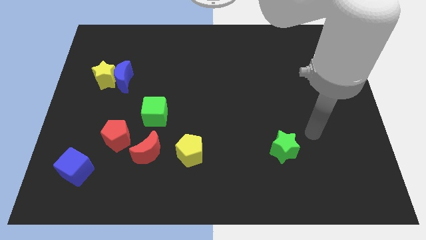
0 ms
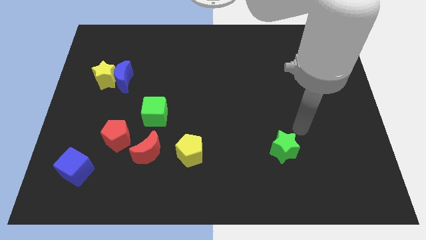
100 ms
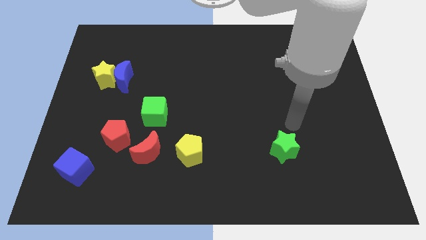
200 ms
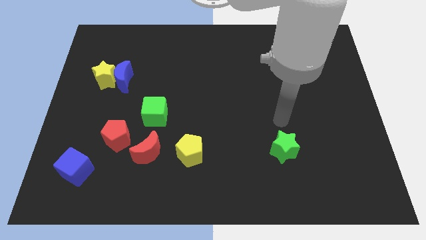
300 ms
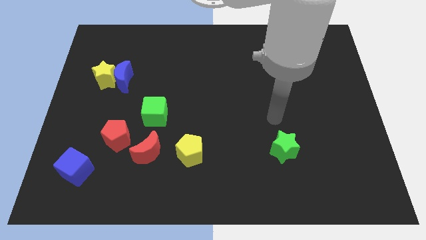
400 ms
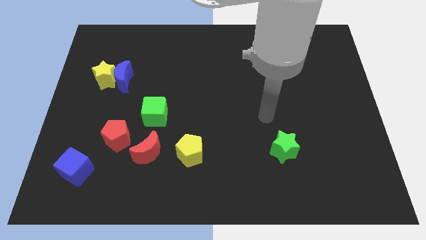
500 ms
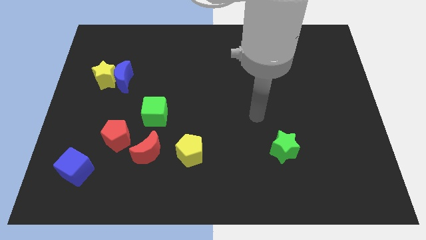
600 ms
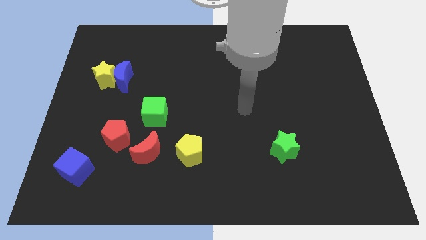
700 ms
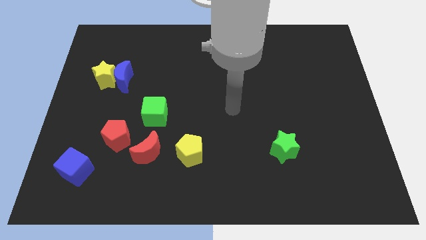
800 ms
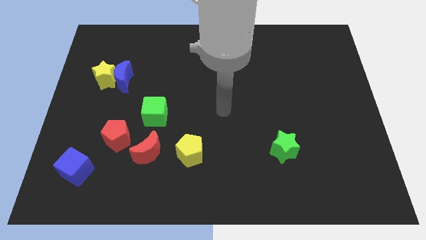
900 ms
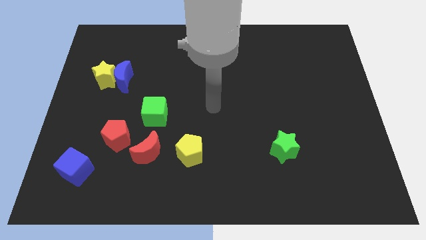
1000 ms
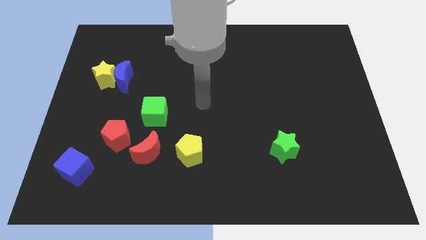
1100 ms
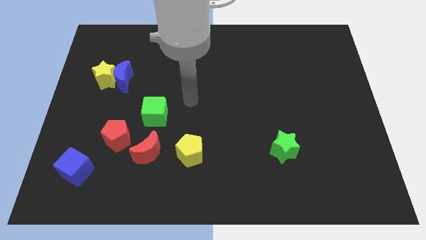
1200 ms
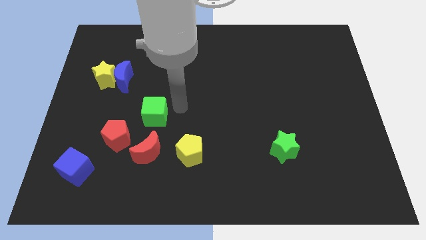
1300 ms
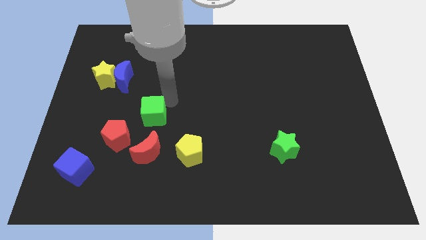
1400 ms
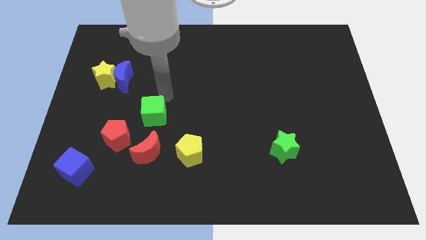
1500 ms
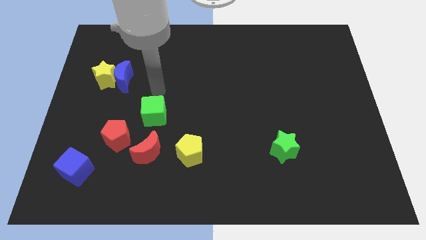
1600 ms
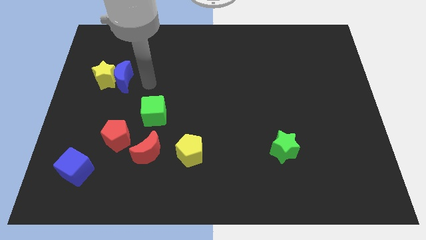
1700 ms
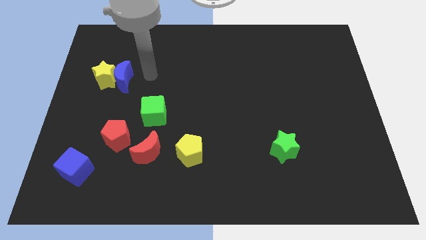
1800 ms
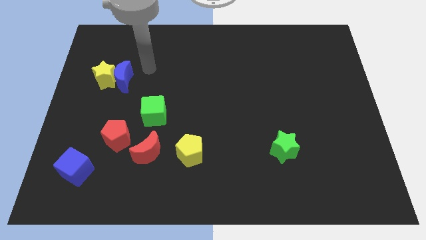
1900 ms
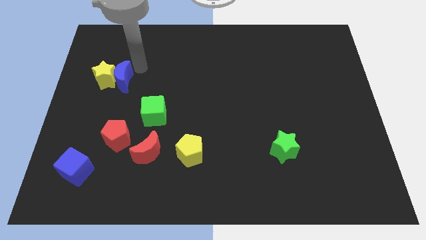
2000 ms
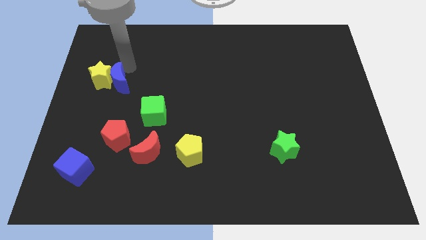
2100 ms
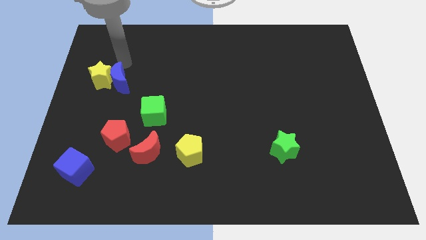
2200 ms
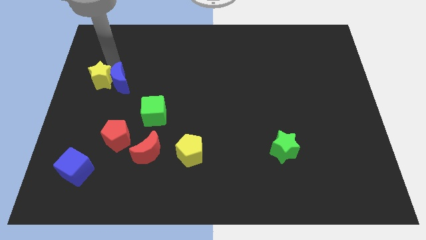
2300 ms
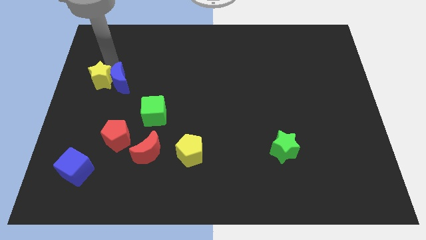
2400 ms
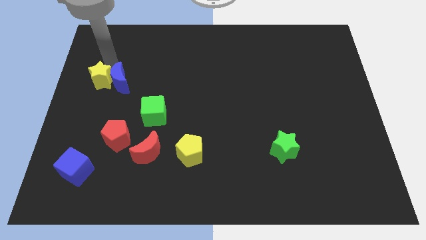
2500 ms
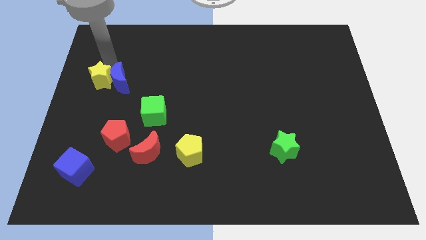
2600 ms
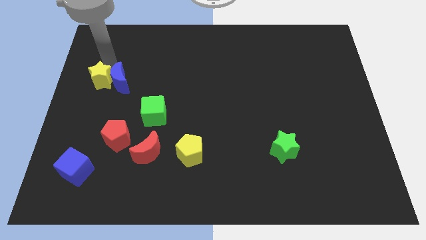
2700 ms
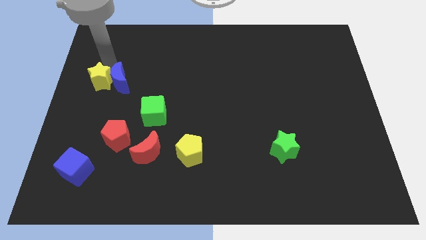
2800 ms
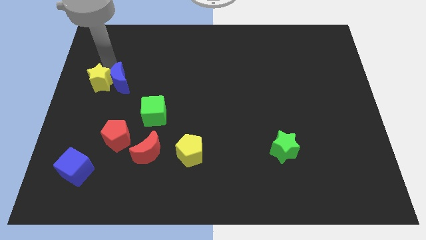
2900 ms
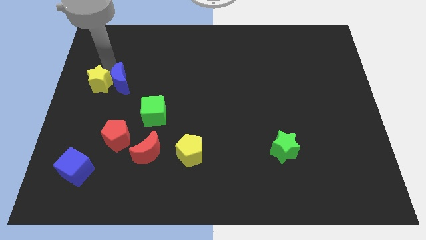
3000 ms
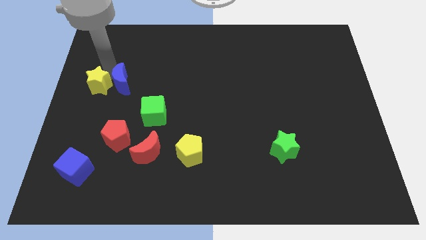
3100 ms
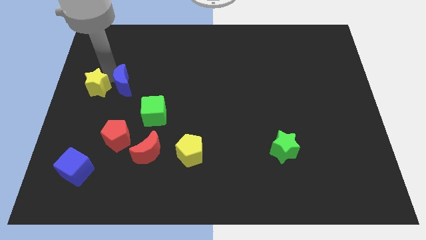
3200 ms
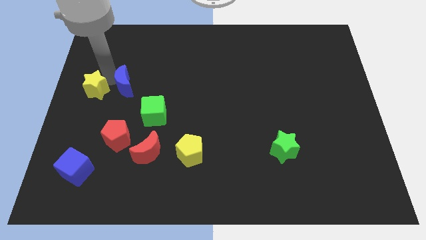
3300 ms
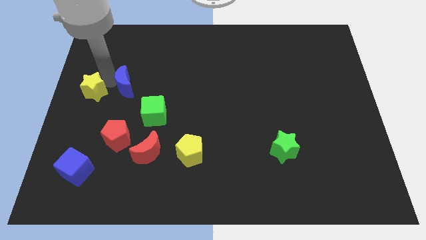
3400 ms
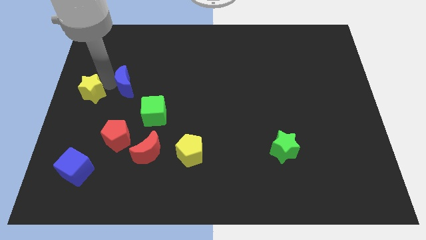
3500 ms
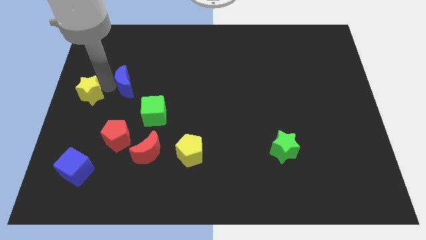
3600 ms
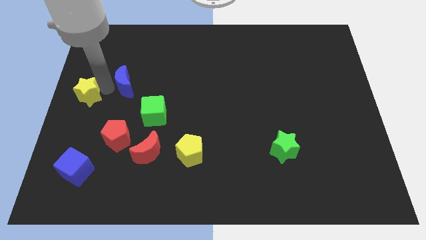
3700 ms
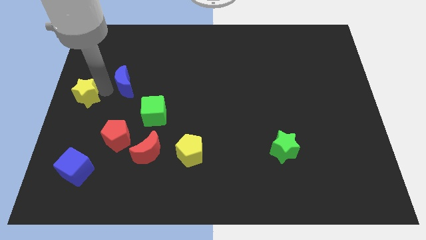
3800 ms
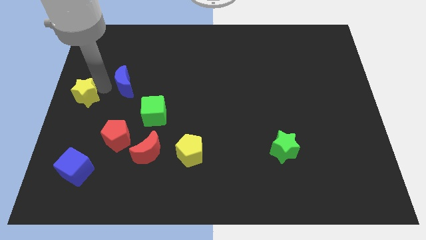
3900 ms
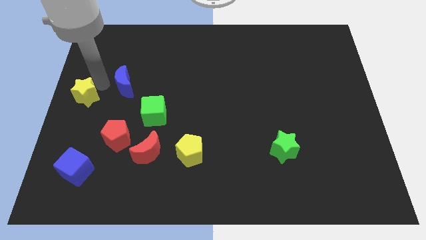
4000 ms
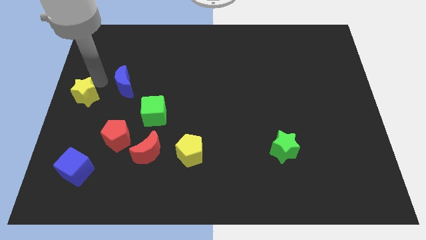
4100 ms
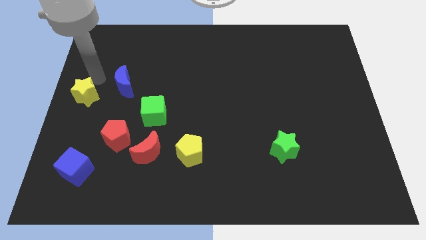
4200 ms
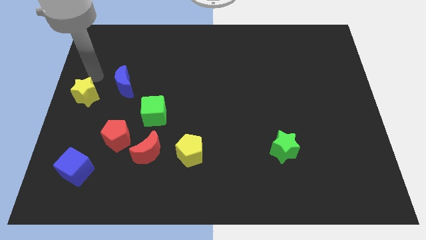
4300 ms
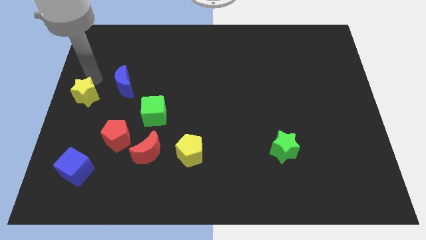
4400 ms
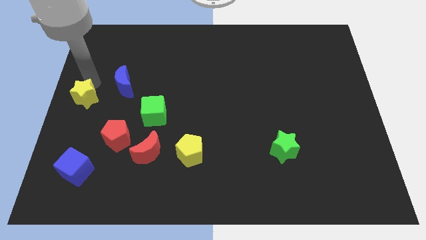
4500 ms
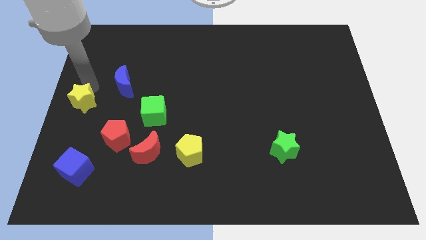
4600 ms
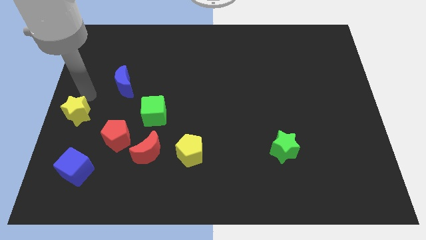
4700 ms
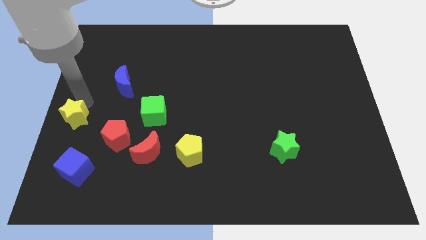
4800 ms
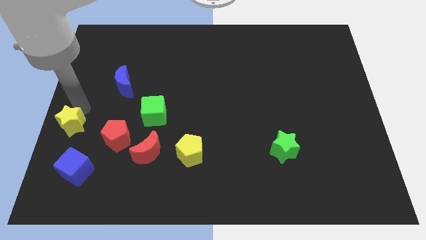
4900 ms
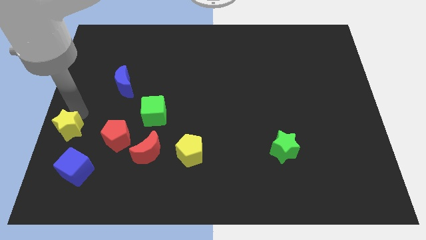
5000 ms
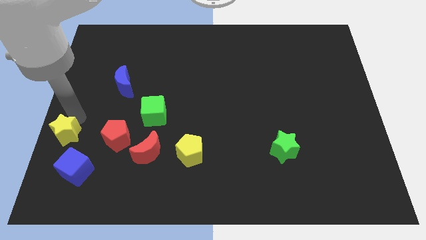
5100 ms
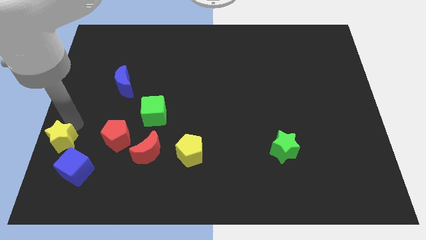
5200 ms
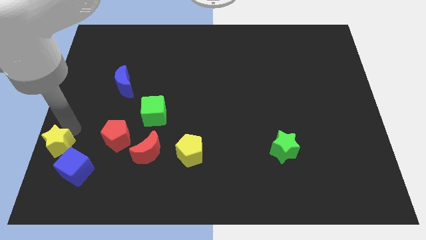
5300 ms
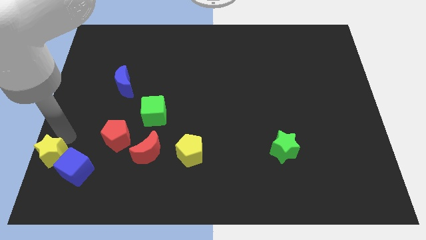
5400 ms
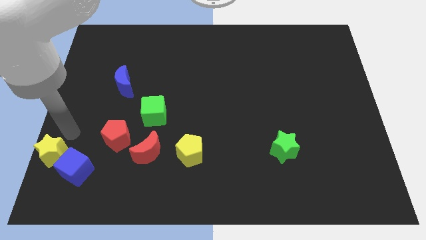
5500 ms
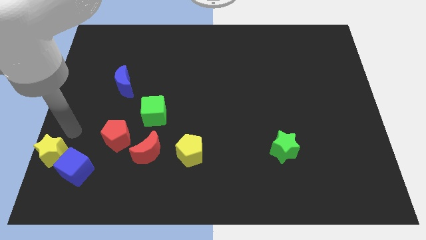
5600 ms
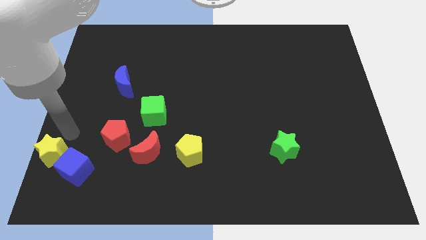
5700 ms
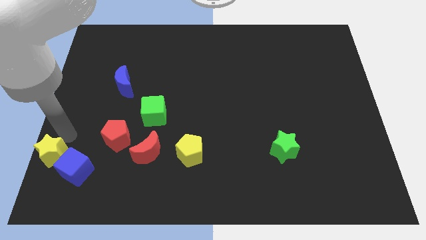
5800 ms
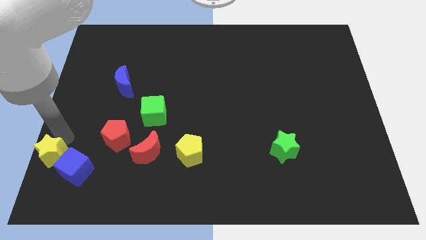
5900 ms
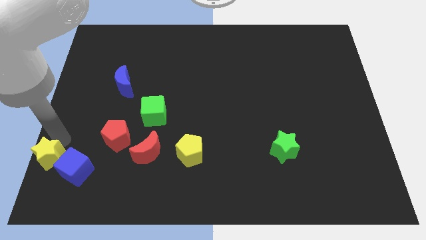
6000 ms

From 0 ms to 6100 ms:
put the yellow star to the lower left corner
